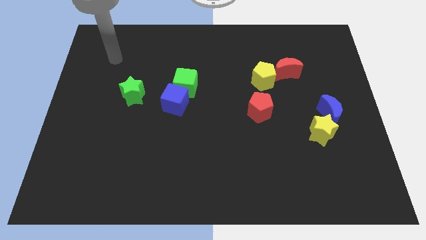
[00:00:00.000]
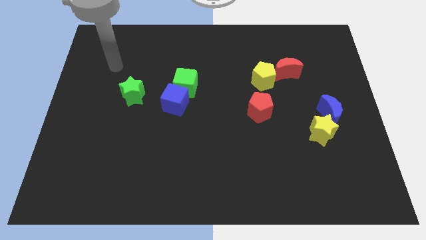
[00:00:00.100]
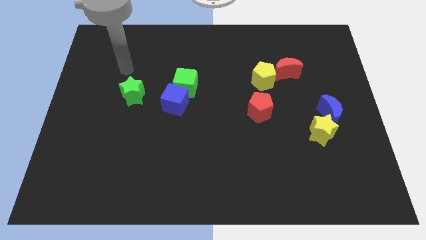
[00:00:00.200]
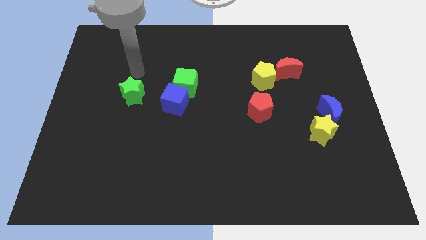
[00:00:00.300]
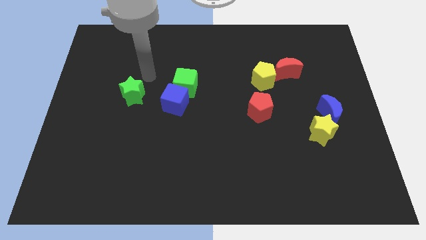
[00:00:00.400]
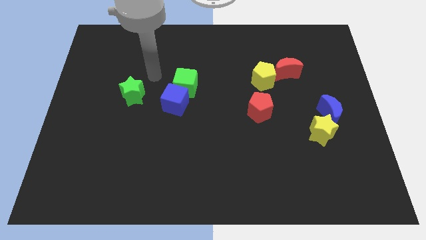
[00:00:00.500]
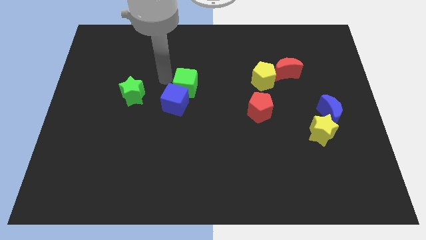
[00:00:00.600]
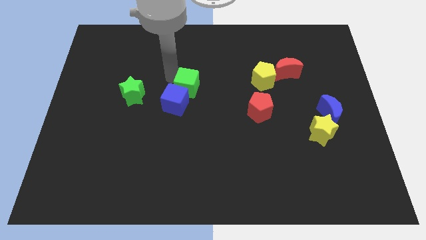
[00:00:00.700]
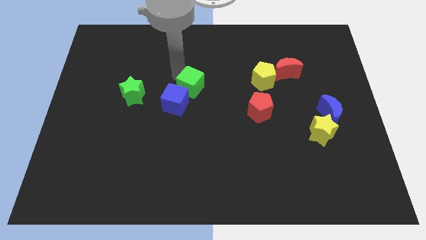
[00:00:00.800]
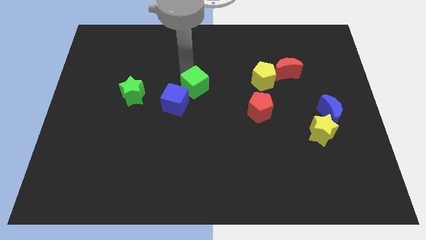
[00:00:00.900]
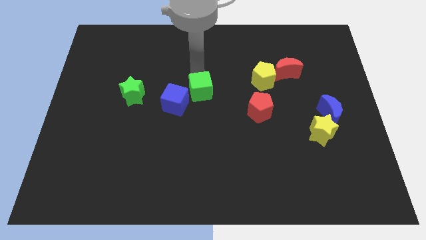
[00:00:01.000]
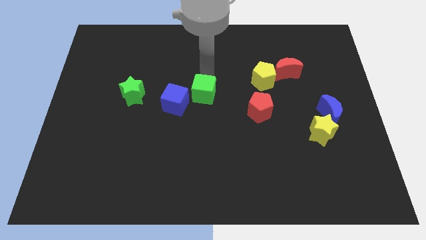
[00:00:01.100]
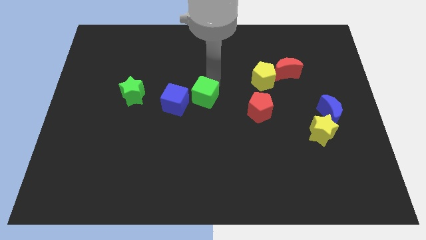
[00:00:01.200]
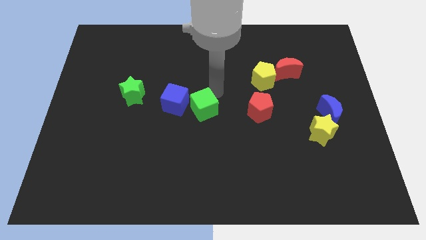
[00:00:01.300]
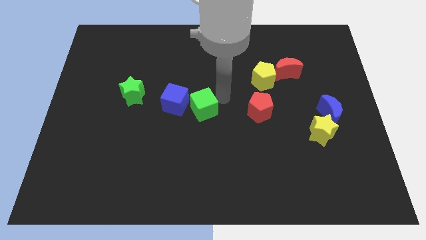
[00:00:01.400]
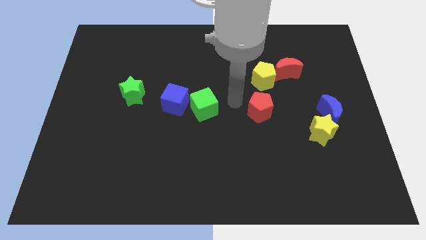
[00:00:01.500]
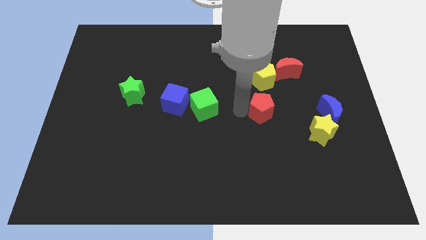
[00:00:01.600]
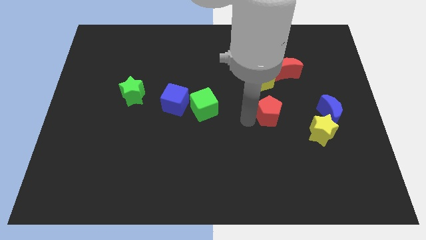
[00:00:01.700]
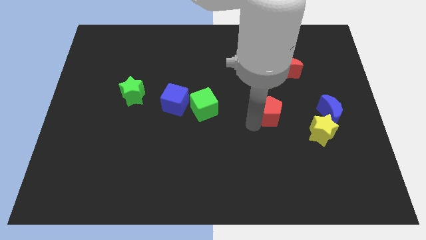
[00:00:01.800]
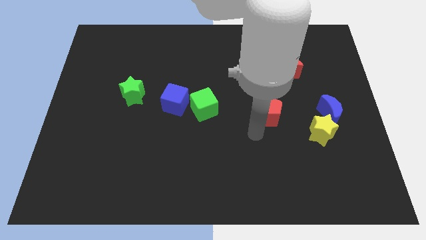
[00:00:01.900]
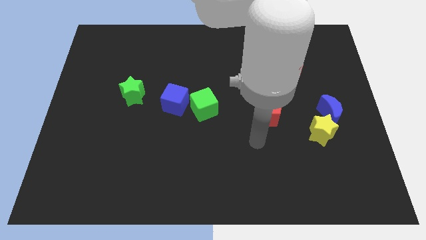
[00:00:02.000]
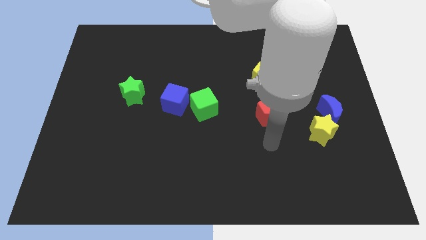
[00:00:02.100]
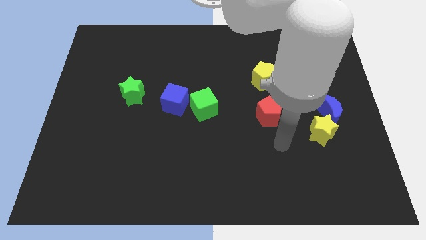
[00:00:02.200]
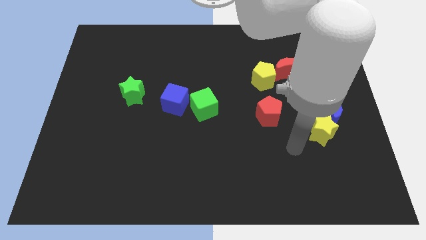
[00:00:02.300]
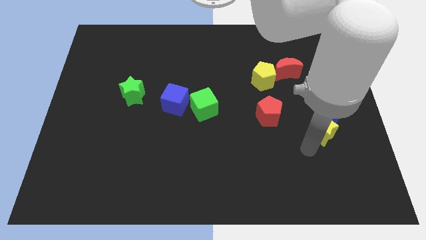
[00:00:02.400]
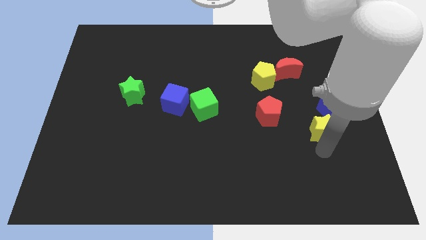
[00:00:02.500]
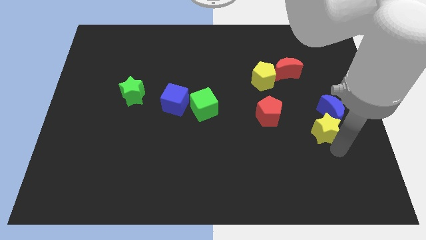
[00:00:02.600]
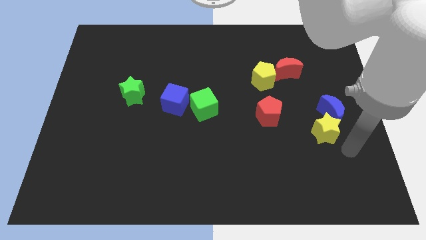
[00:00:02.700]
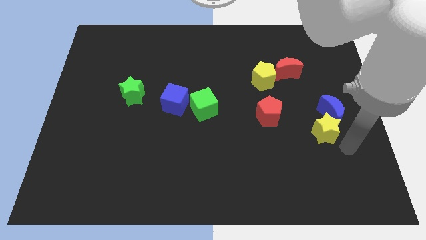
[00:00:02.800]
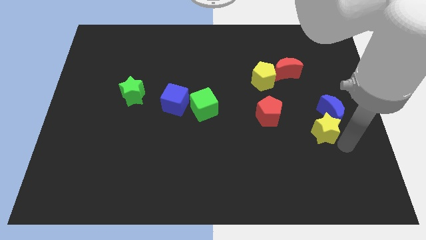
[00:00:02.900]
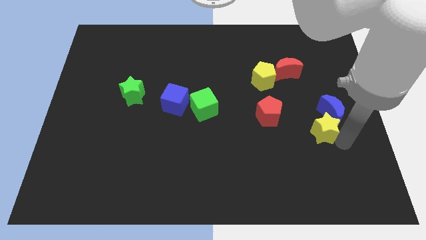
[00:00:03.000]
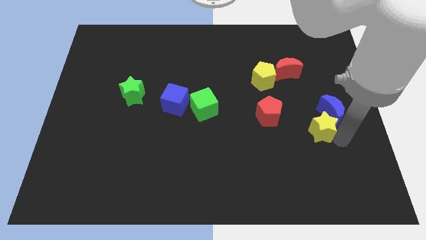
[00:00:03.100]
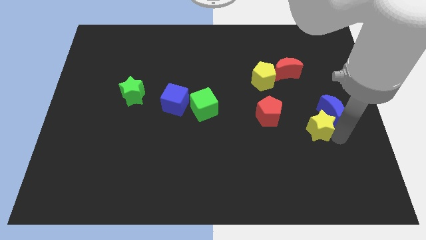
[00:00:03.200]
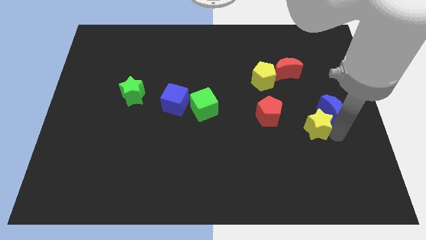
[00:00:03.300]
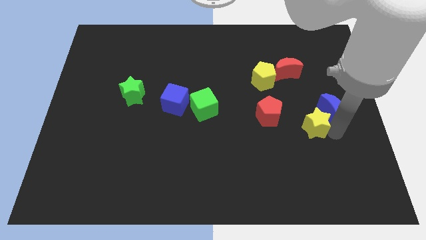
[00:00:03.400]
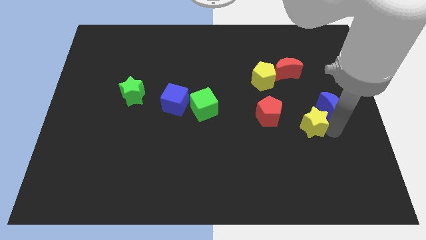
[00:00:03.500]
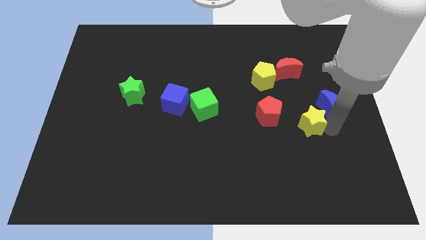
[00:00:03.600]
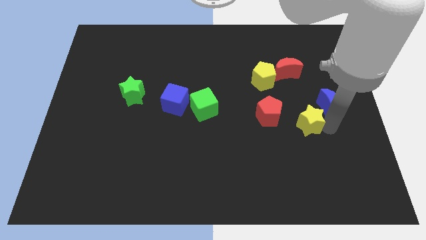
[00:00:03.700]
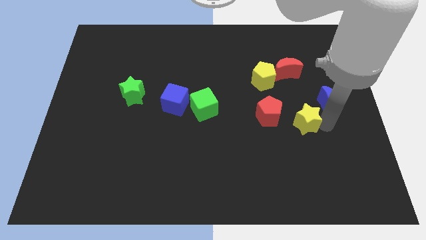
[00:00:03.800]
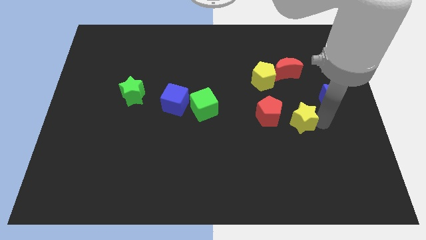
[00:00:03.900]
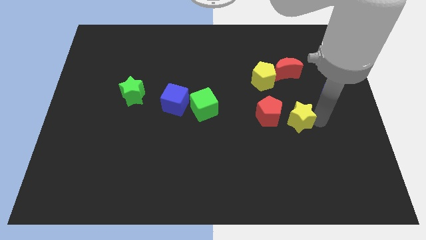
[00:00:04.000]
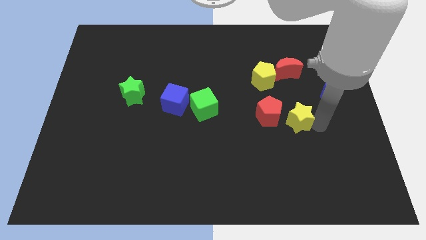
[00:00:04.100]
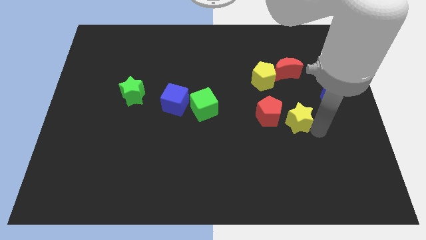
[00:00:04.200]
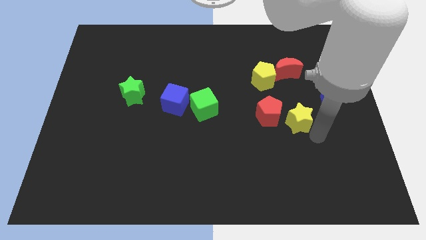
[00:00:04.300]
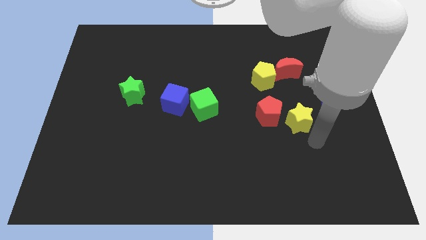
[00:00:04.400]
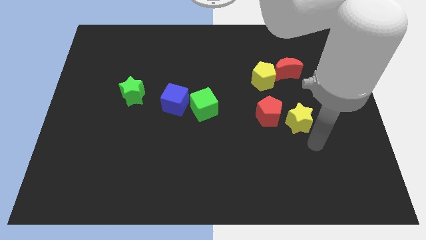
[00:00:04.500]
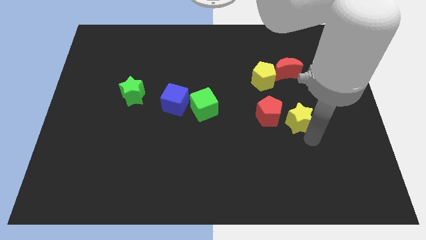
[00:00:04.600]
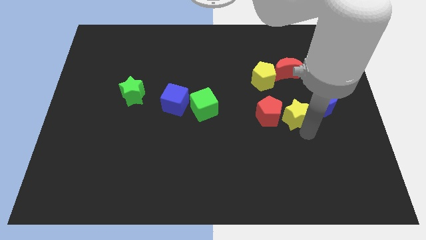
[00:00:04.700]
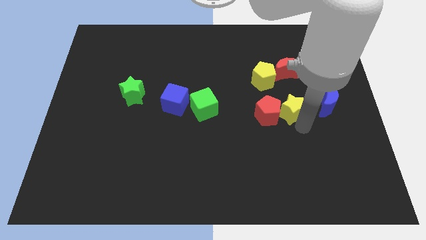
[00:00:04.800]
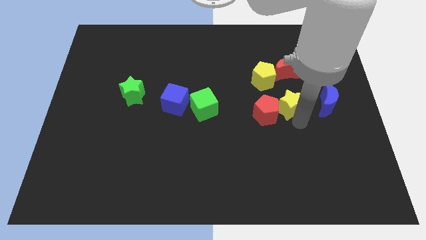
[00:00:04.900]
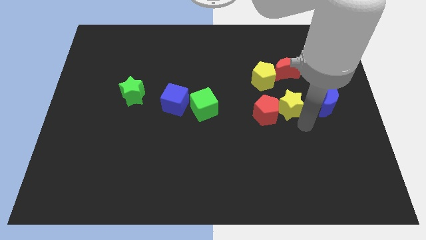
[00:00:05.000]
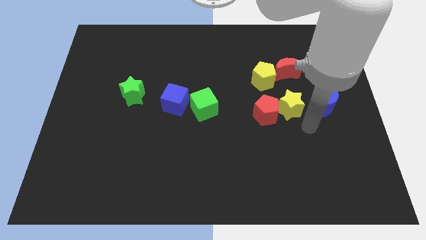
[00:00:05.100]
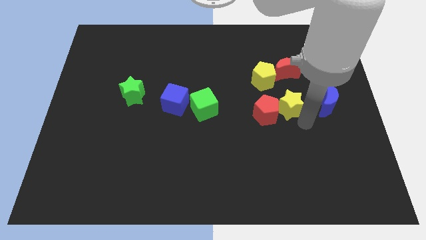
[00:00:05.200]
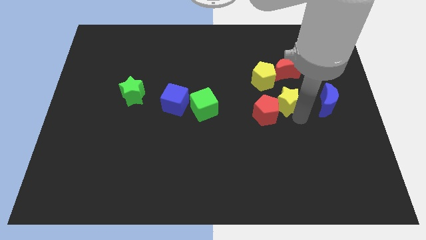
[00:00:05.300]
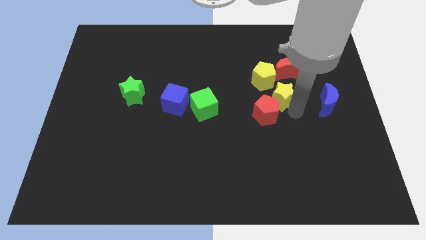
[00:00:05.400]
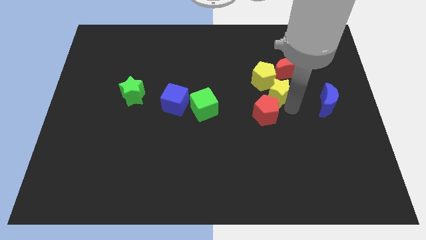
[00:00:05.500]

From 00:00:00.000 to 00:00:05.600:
push the yellow star towards the yellow pentagon
